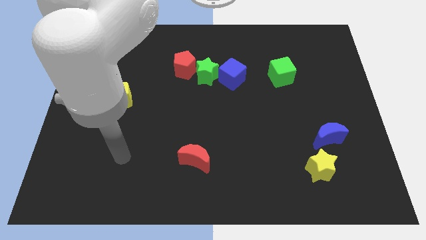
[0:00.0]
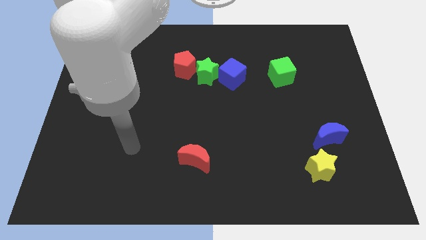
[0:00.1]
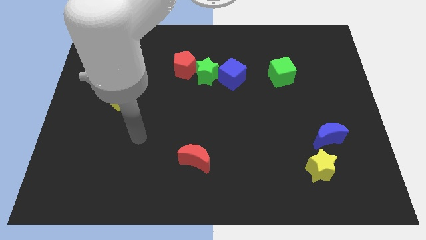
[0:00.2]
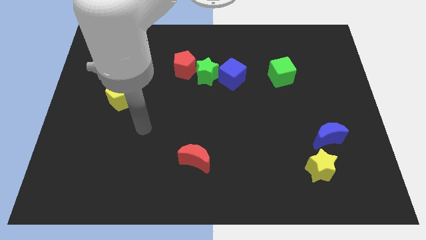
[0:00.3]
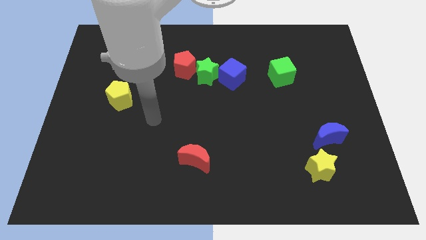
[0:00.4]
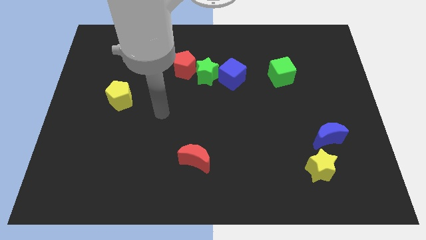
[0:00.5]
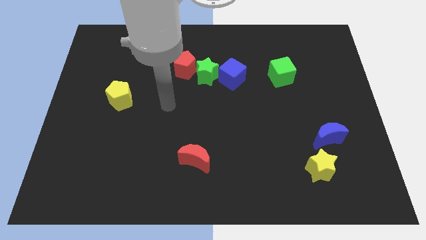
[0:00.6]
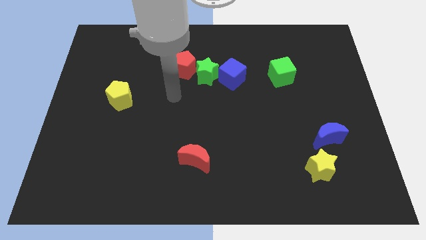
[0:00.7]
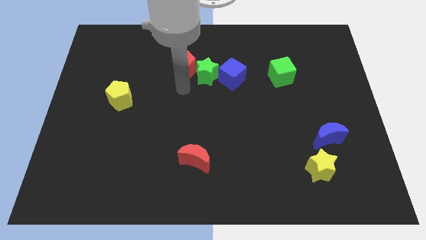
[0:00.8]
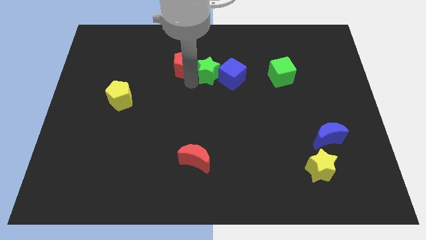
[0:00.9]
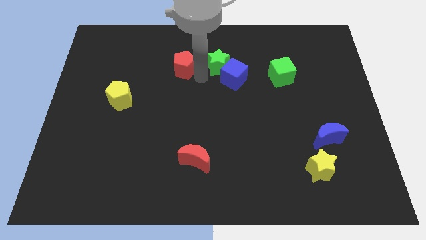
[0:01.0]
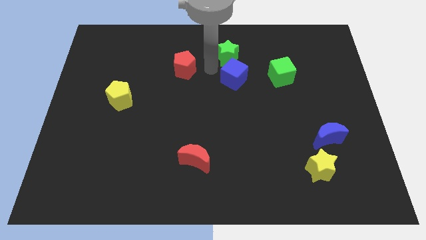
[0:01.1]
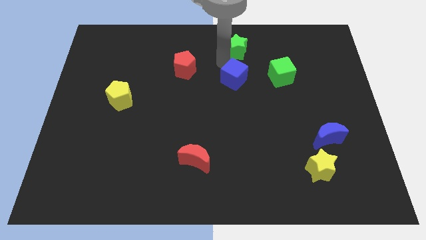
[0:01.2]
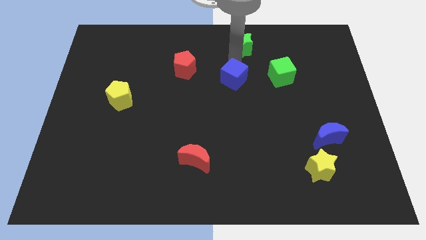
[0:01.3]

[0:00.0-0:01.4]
move the blue cube away from the green star

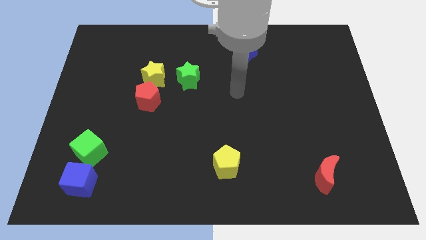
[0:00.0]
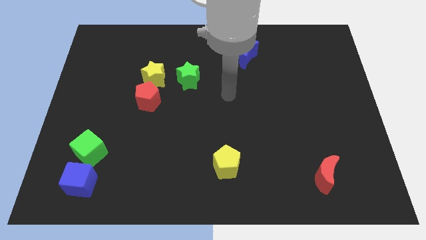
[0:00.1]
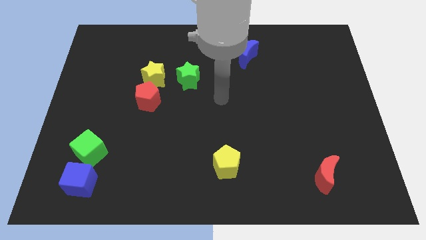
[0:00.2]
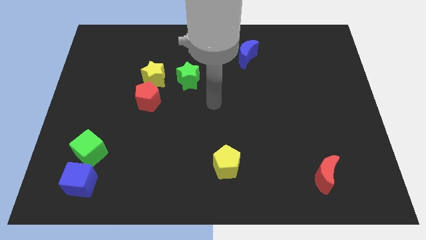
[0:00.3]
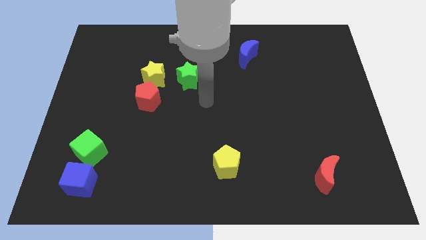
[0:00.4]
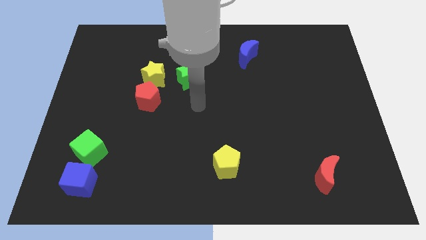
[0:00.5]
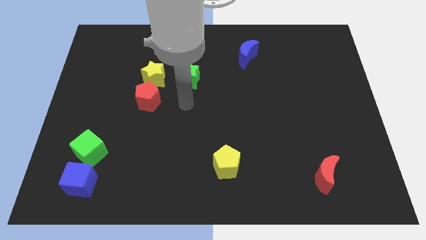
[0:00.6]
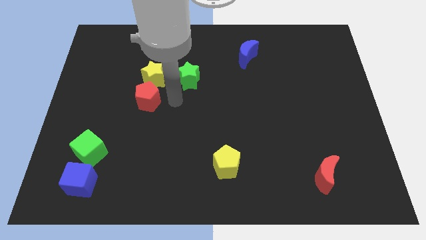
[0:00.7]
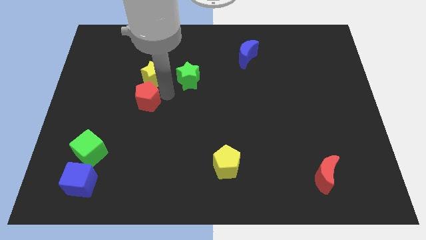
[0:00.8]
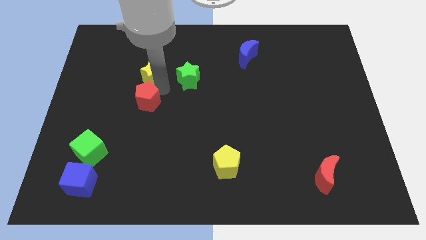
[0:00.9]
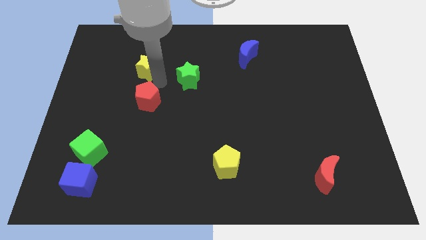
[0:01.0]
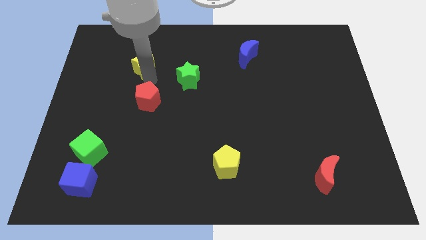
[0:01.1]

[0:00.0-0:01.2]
pull the red pentagon apart from the yellow star

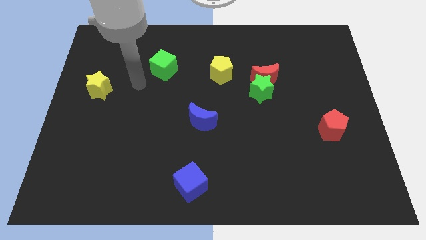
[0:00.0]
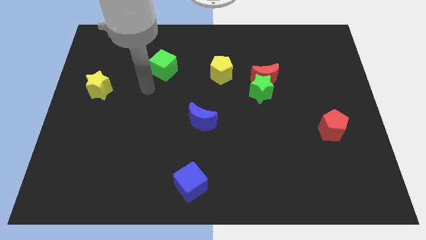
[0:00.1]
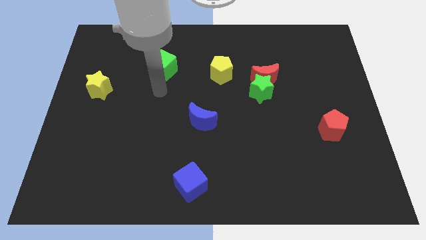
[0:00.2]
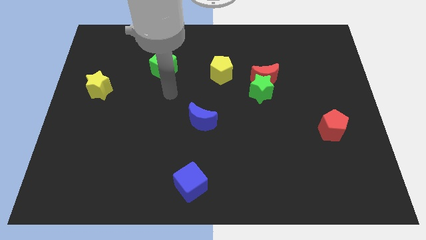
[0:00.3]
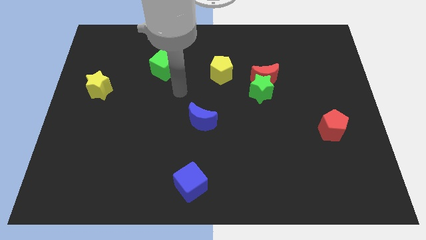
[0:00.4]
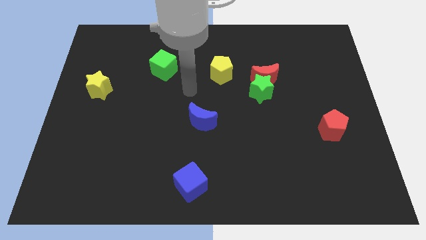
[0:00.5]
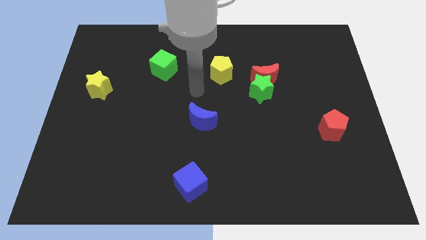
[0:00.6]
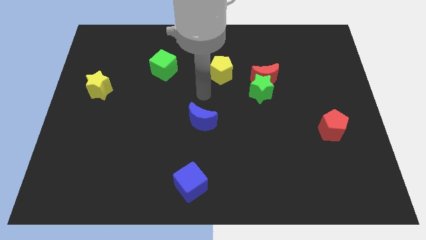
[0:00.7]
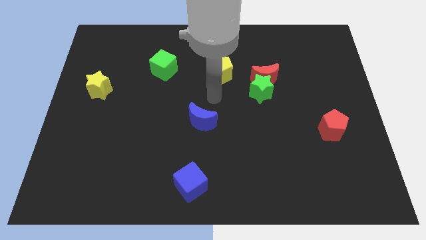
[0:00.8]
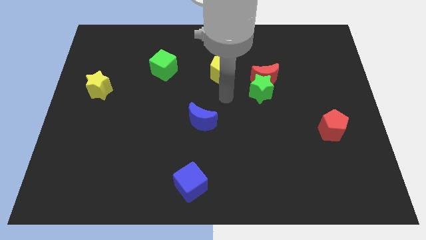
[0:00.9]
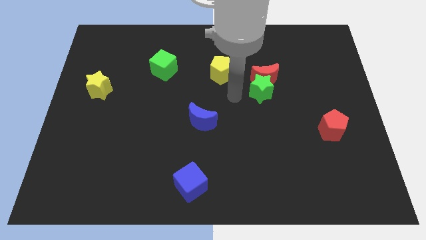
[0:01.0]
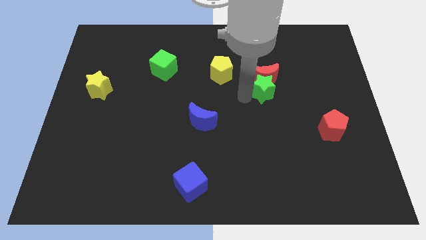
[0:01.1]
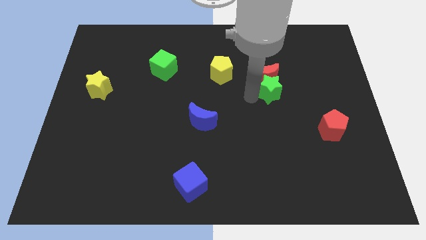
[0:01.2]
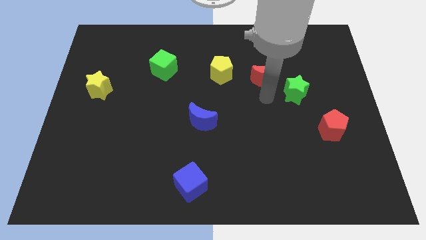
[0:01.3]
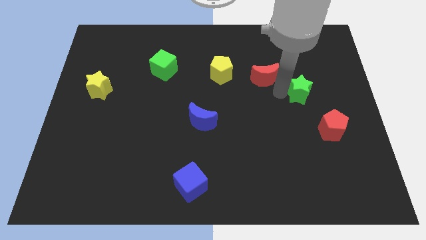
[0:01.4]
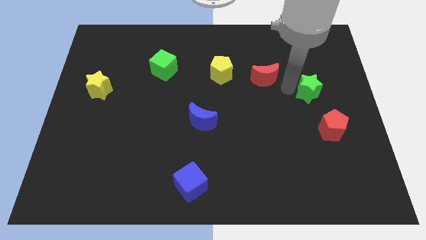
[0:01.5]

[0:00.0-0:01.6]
pull the red moon apart from the green star

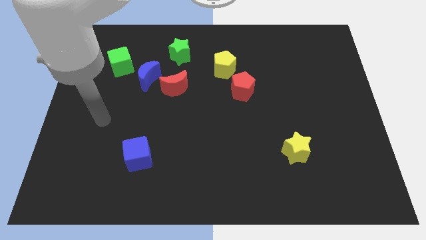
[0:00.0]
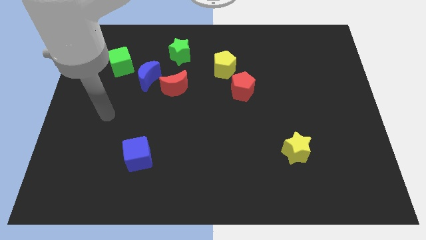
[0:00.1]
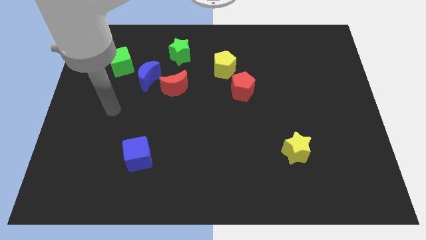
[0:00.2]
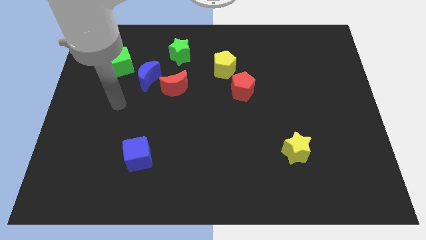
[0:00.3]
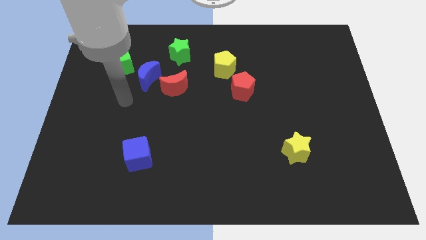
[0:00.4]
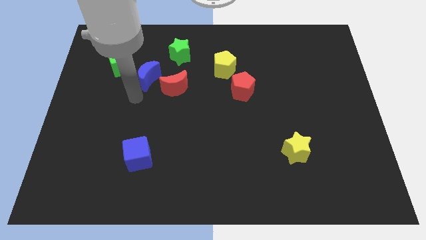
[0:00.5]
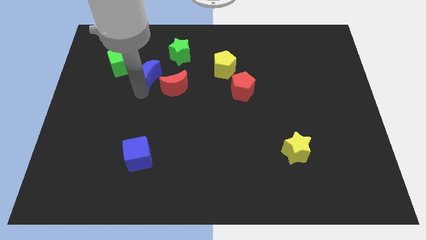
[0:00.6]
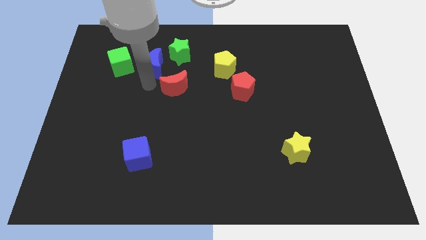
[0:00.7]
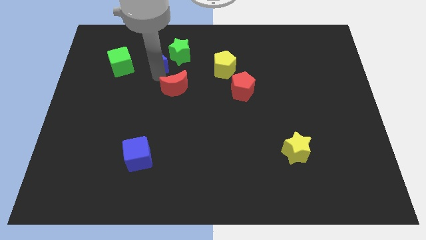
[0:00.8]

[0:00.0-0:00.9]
move the red moon away from the blue moon

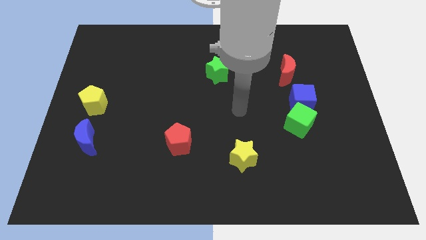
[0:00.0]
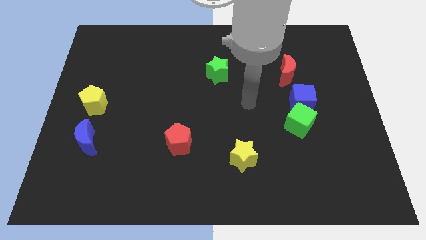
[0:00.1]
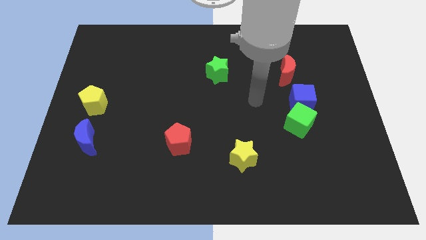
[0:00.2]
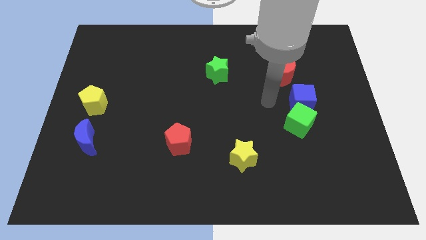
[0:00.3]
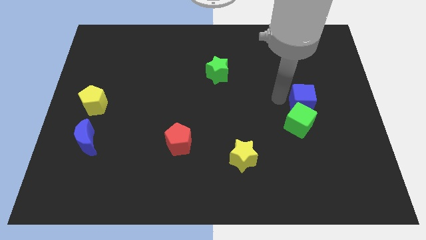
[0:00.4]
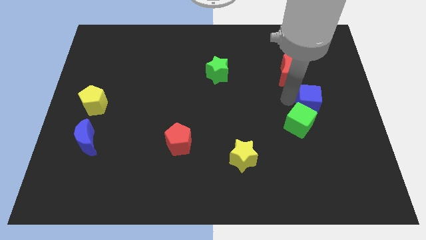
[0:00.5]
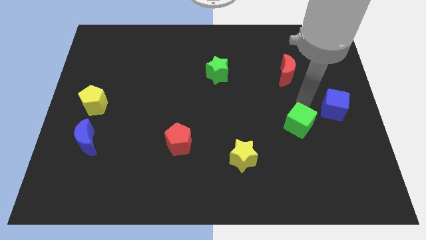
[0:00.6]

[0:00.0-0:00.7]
move the green cube away from the blue cube

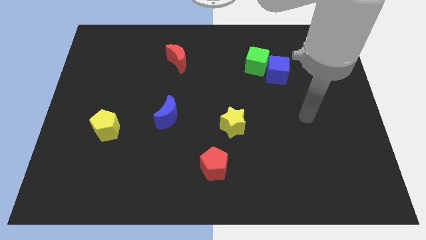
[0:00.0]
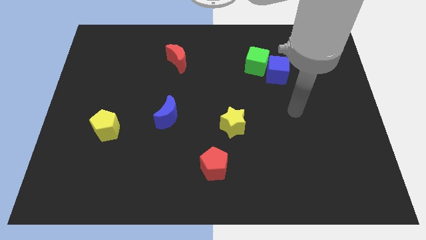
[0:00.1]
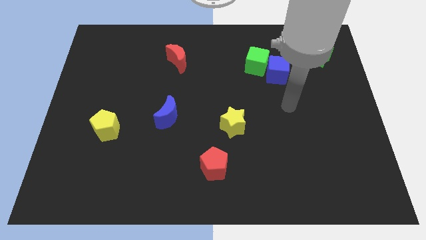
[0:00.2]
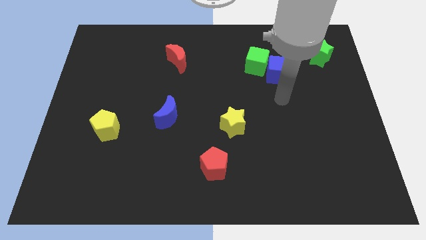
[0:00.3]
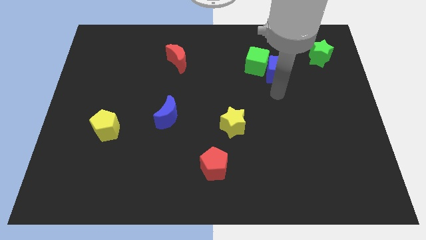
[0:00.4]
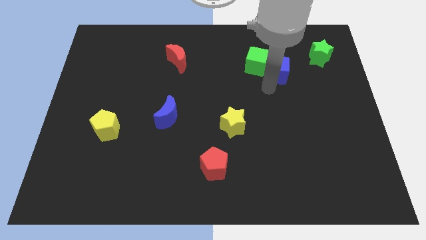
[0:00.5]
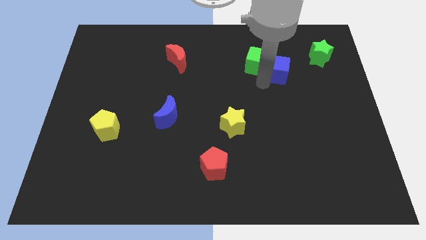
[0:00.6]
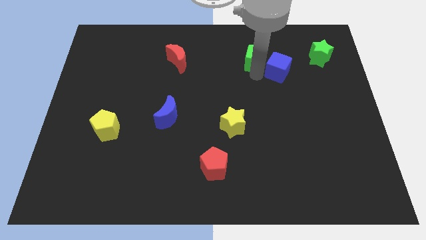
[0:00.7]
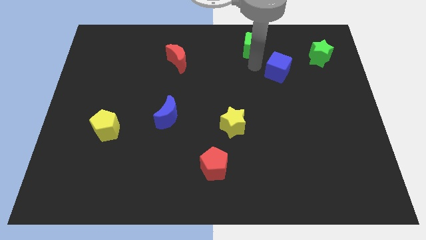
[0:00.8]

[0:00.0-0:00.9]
separate the blue cube from the green cube

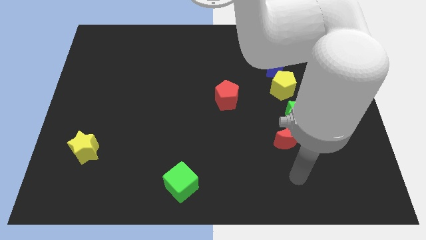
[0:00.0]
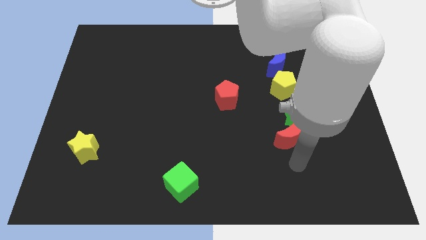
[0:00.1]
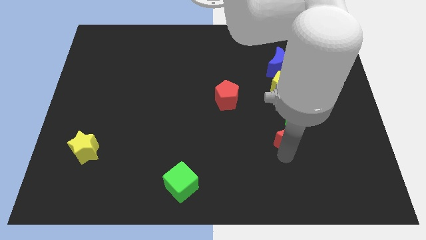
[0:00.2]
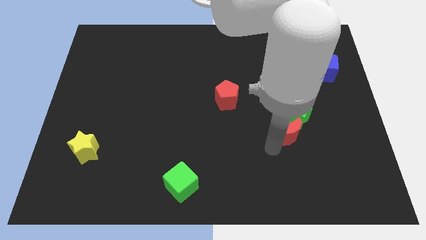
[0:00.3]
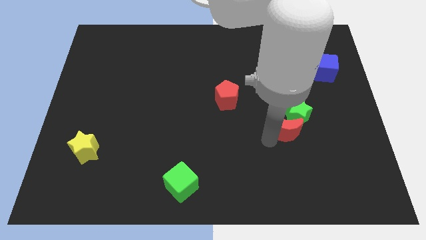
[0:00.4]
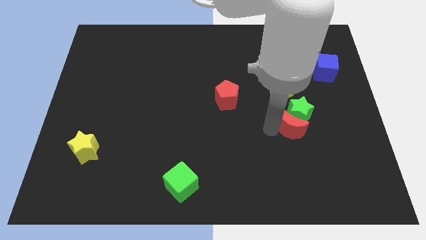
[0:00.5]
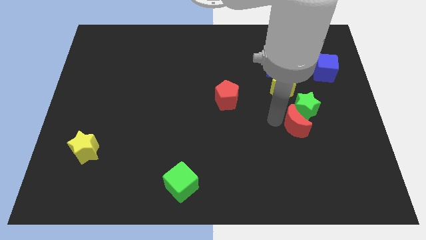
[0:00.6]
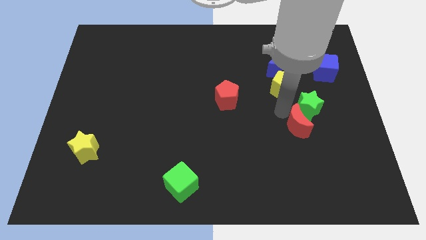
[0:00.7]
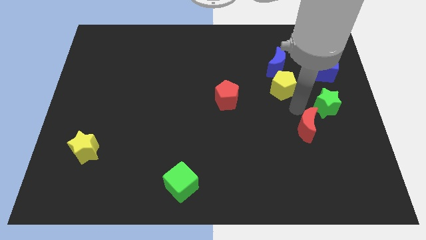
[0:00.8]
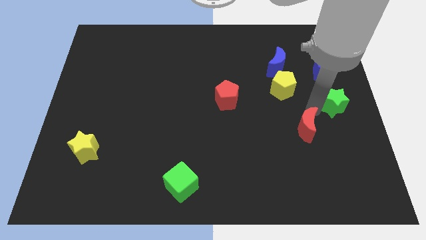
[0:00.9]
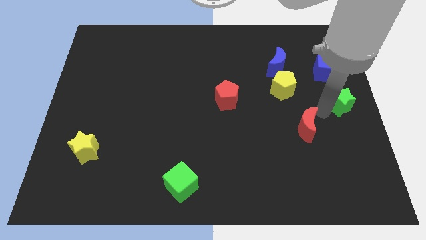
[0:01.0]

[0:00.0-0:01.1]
separate the red moon from the green star

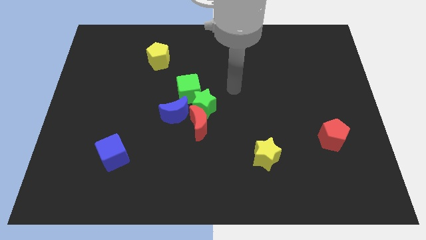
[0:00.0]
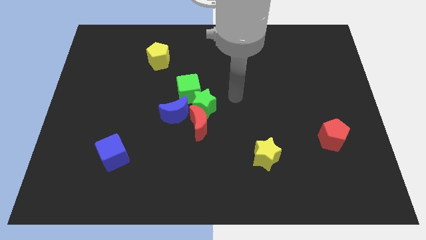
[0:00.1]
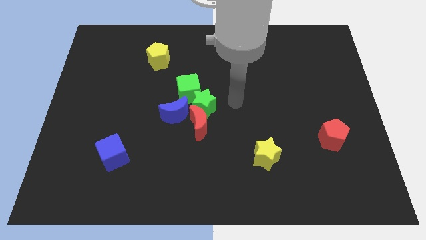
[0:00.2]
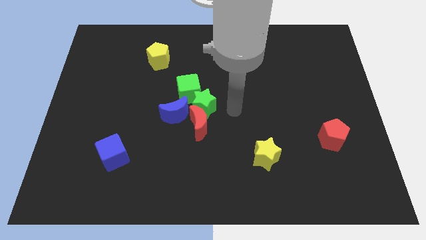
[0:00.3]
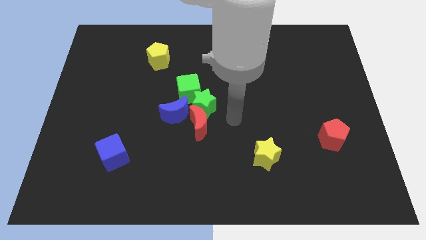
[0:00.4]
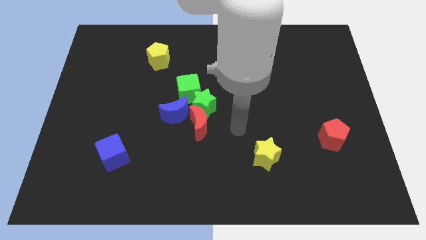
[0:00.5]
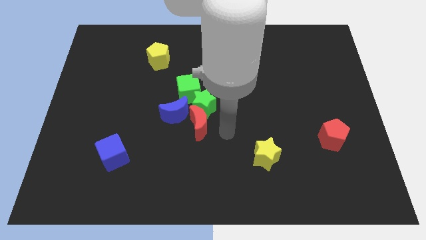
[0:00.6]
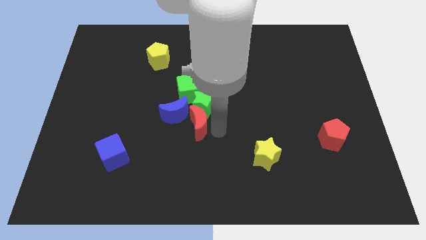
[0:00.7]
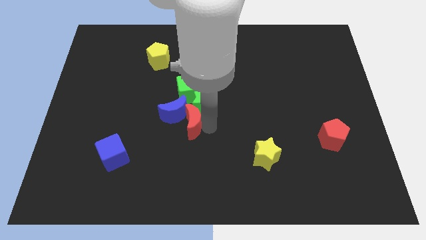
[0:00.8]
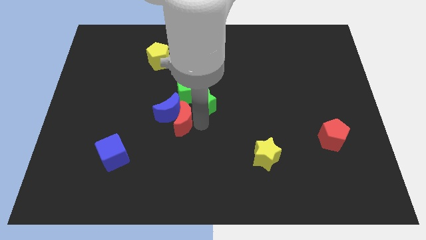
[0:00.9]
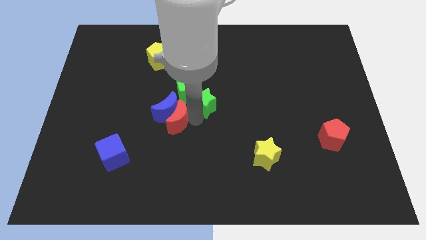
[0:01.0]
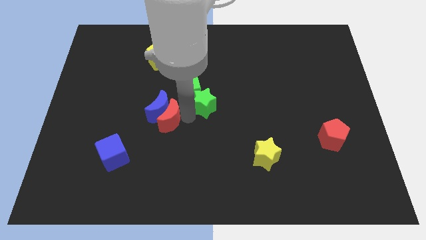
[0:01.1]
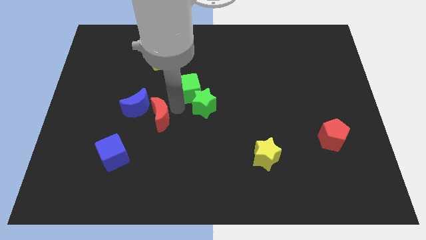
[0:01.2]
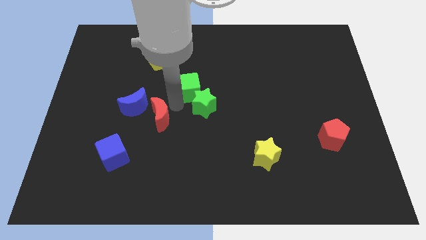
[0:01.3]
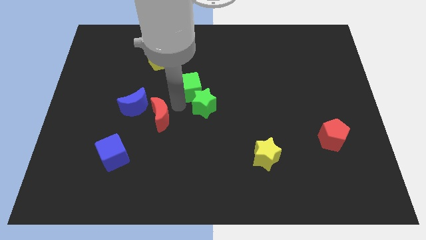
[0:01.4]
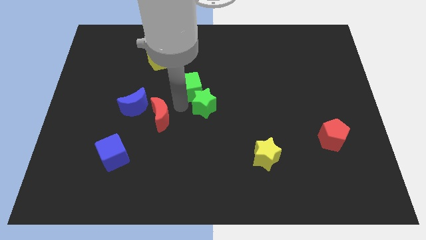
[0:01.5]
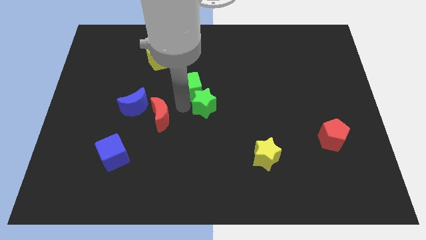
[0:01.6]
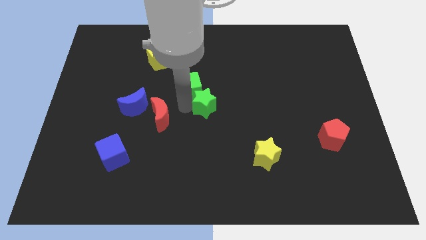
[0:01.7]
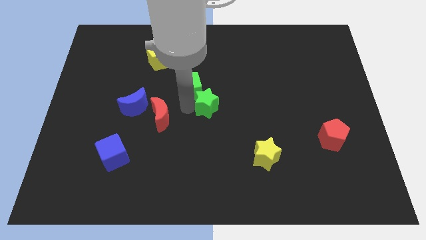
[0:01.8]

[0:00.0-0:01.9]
pull the green star apart from the clump
